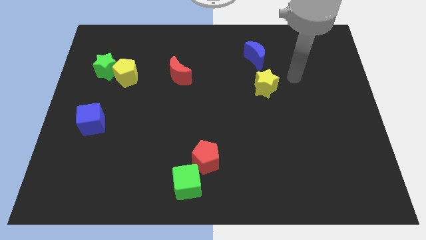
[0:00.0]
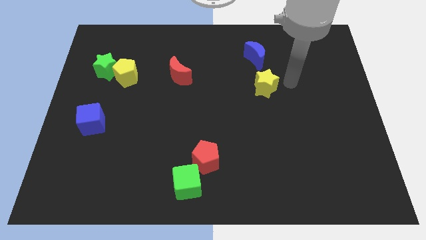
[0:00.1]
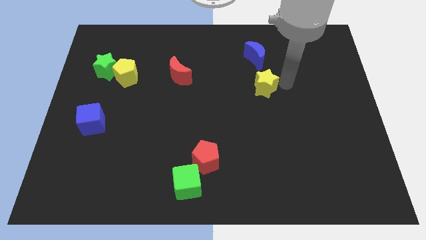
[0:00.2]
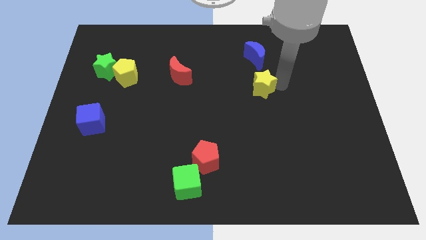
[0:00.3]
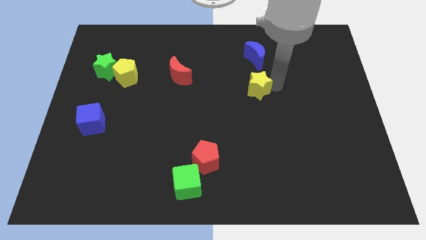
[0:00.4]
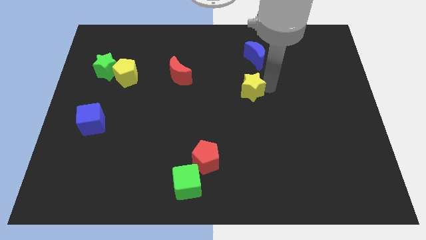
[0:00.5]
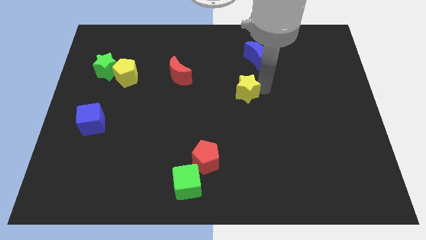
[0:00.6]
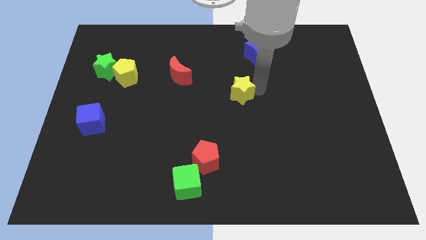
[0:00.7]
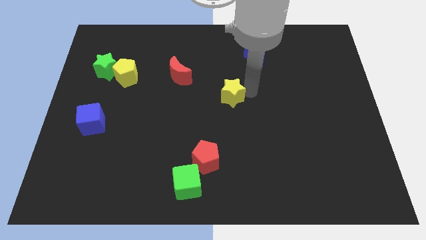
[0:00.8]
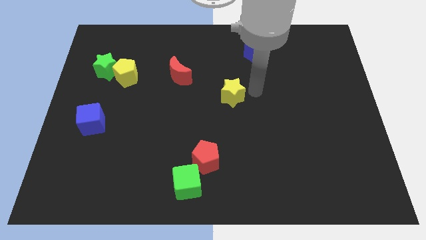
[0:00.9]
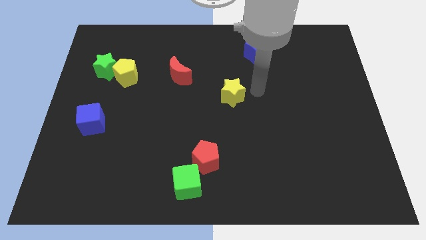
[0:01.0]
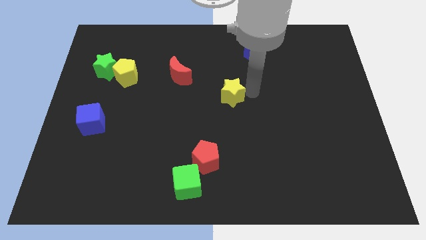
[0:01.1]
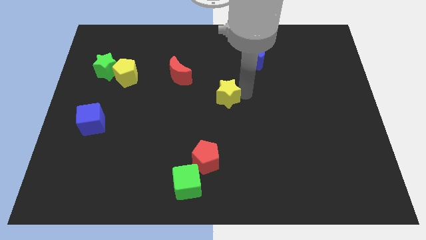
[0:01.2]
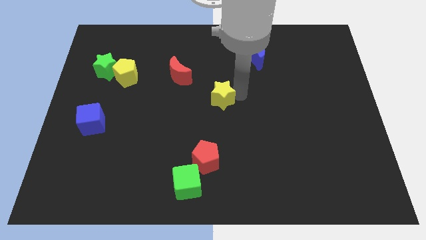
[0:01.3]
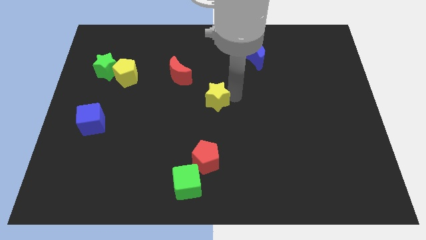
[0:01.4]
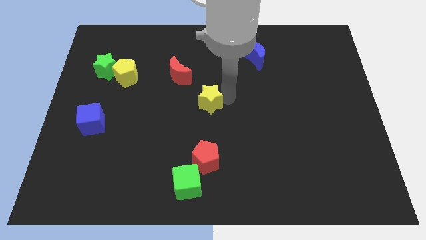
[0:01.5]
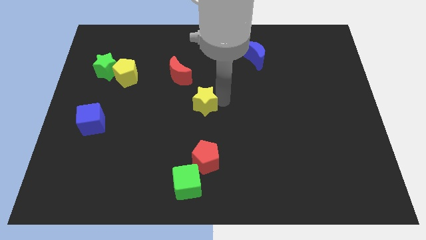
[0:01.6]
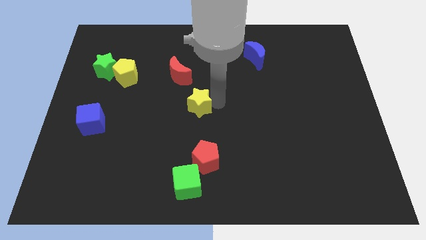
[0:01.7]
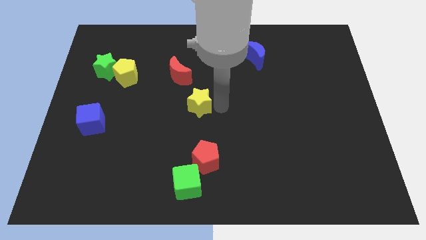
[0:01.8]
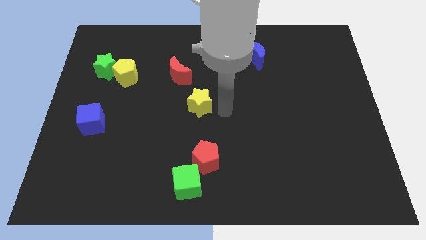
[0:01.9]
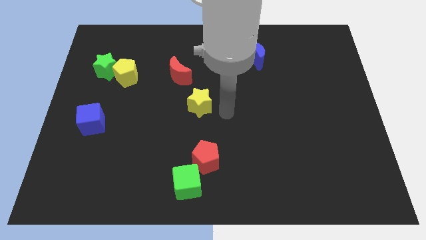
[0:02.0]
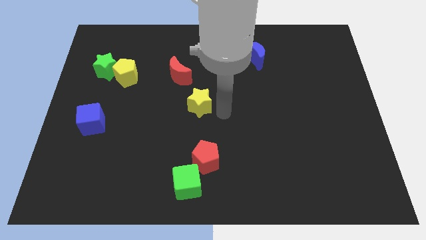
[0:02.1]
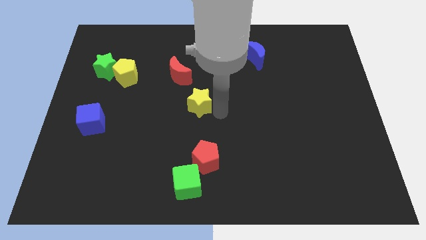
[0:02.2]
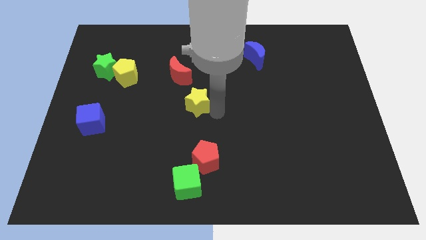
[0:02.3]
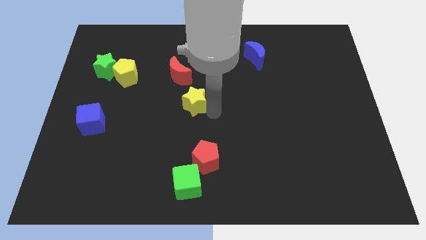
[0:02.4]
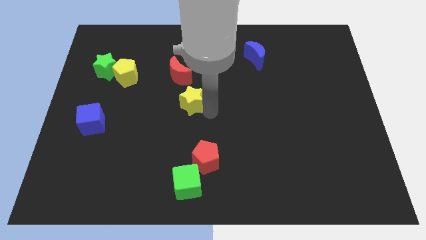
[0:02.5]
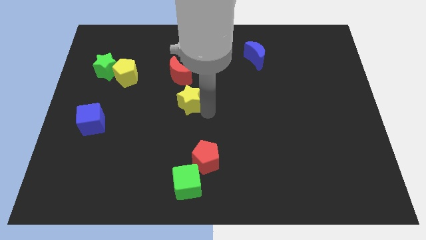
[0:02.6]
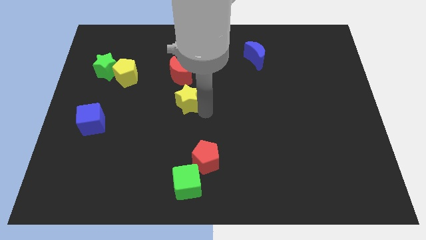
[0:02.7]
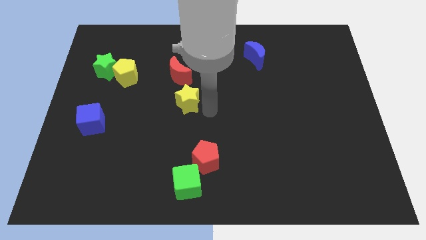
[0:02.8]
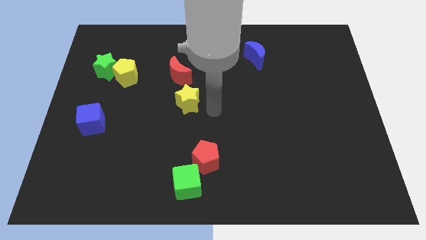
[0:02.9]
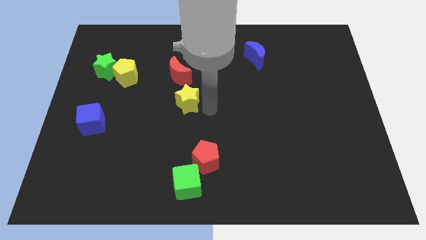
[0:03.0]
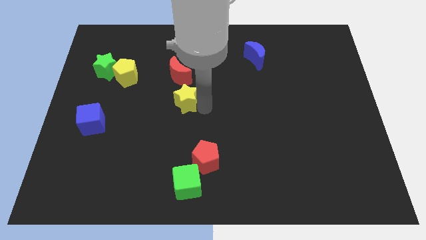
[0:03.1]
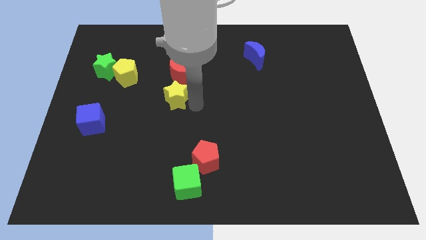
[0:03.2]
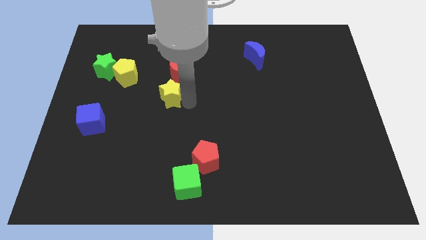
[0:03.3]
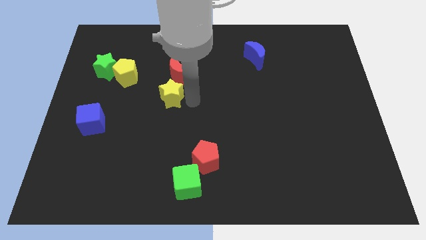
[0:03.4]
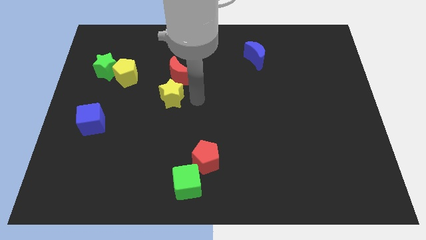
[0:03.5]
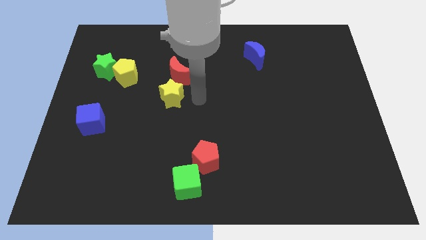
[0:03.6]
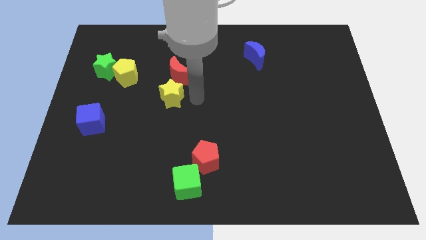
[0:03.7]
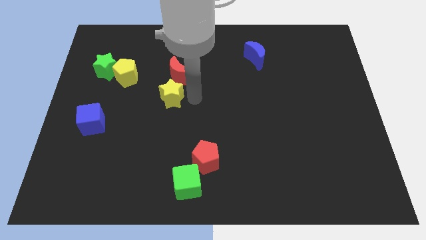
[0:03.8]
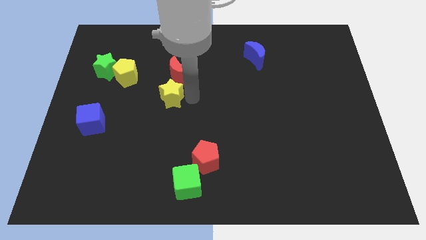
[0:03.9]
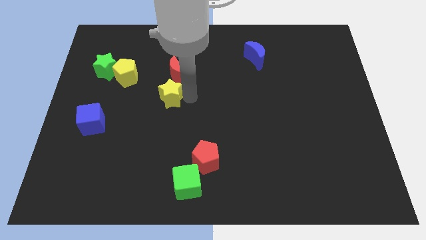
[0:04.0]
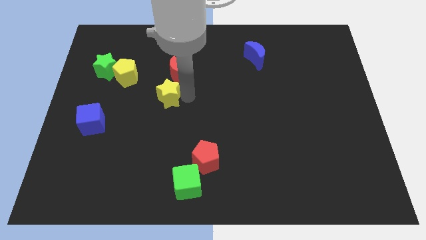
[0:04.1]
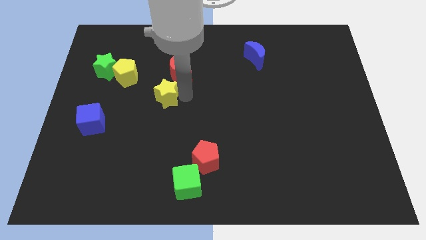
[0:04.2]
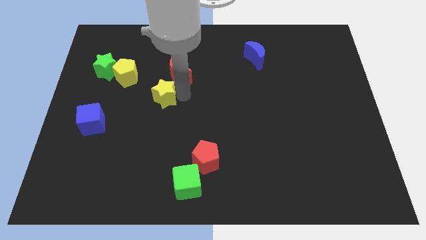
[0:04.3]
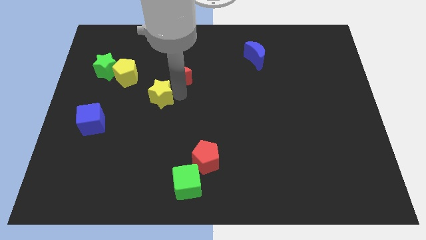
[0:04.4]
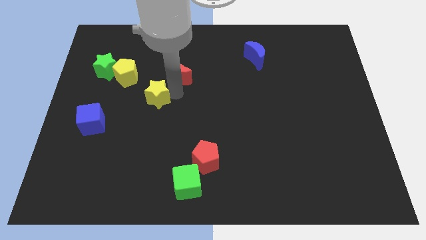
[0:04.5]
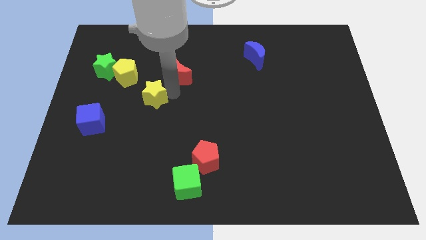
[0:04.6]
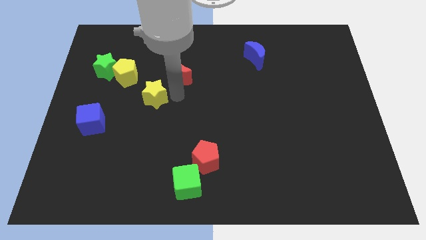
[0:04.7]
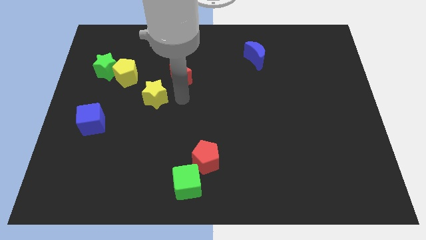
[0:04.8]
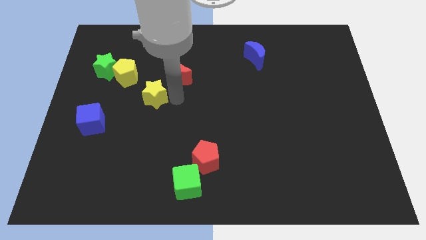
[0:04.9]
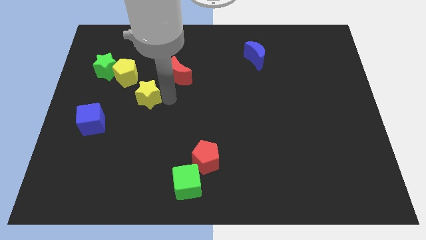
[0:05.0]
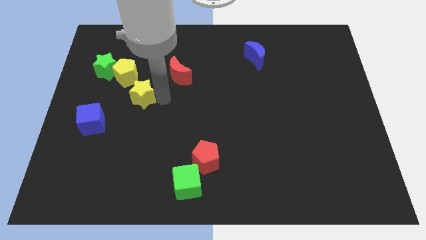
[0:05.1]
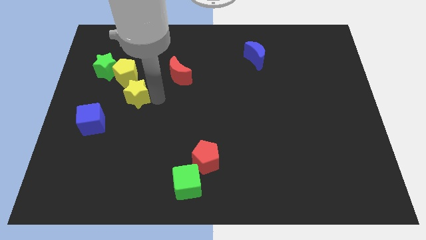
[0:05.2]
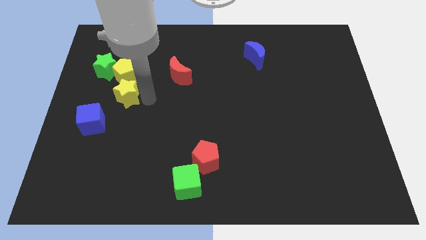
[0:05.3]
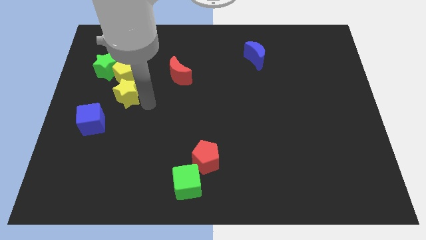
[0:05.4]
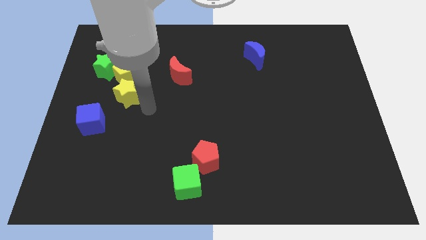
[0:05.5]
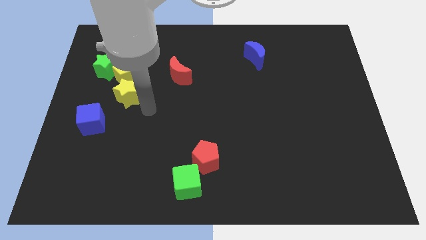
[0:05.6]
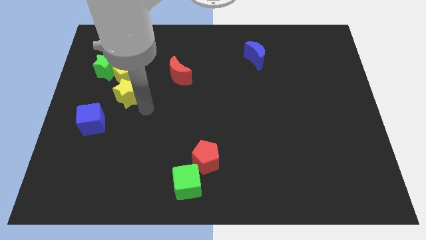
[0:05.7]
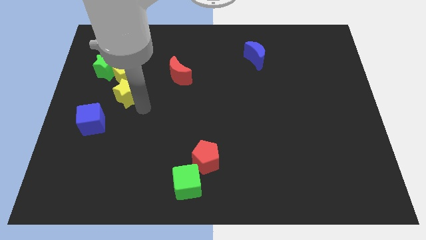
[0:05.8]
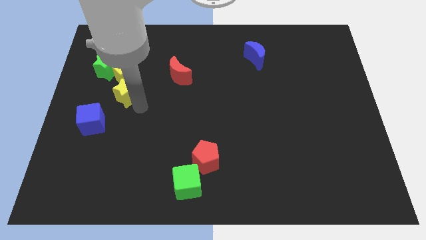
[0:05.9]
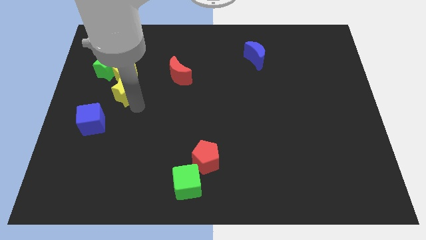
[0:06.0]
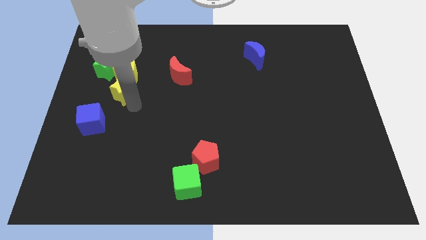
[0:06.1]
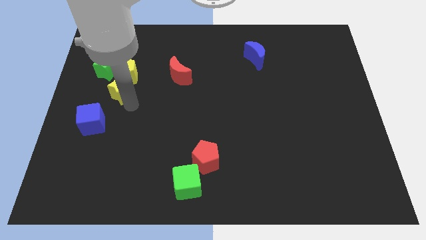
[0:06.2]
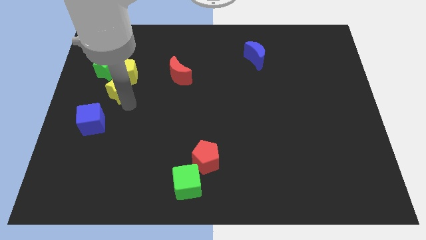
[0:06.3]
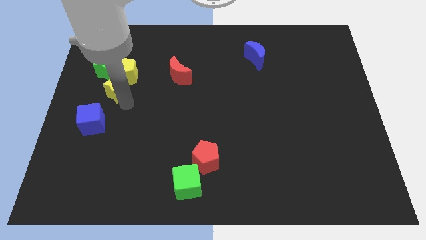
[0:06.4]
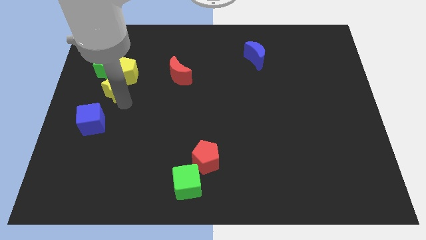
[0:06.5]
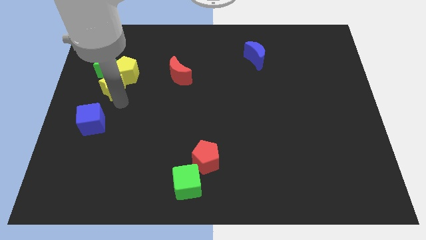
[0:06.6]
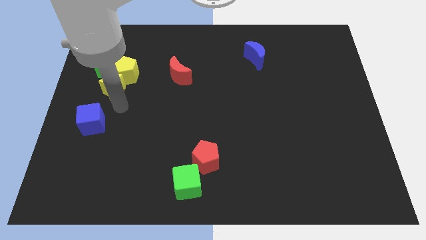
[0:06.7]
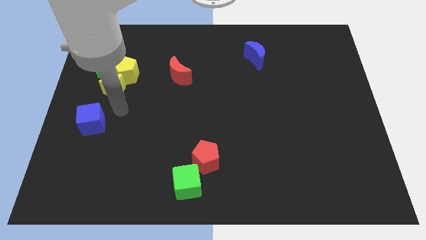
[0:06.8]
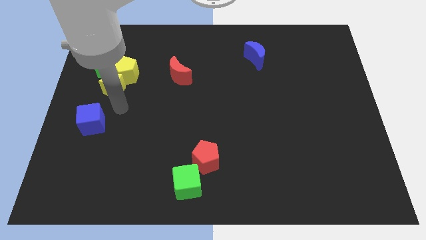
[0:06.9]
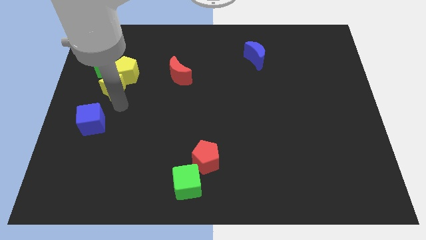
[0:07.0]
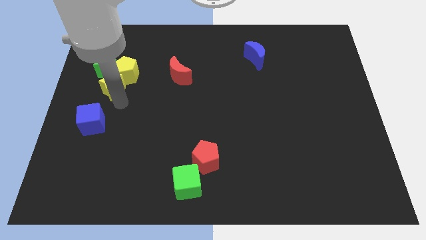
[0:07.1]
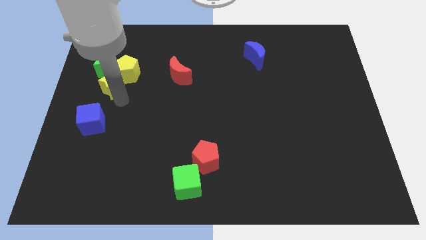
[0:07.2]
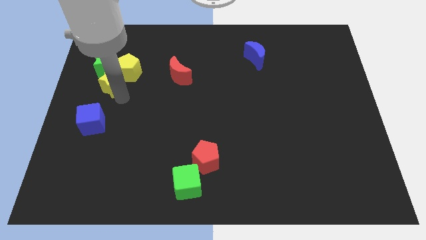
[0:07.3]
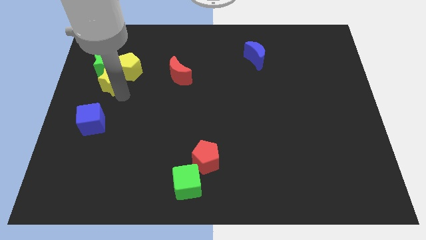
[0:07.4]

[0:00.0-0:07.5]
move the yellow star close to the green star
